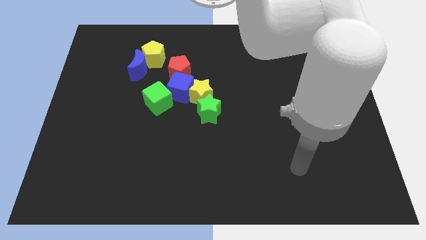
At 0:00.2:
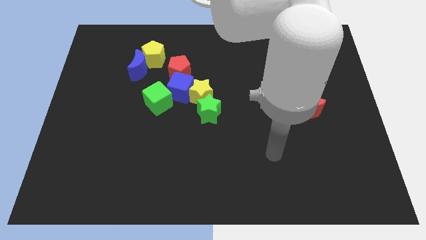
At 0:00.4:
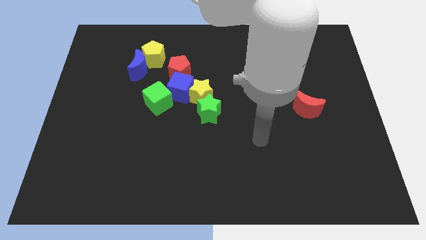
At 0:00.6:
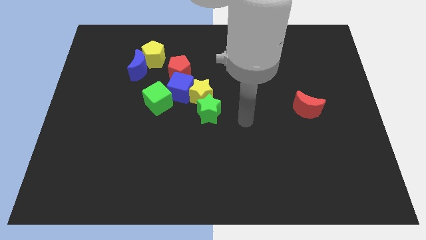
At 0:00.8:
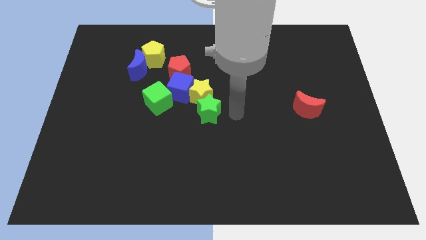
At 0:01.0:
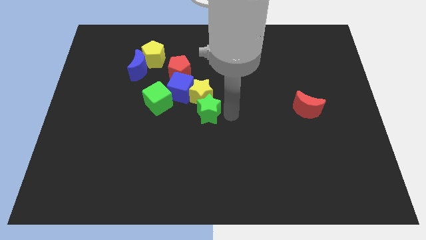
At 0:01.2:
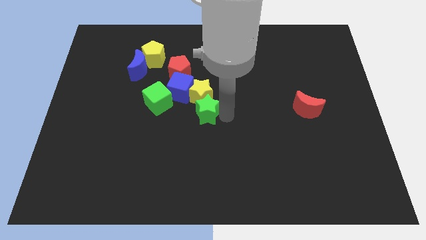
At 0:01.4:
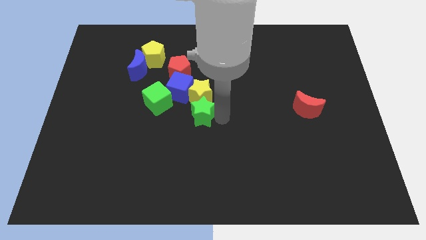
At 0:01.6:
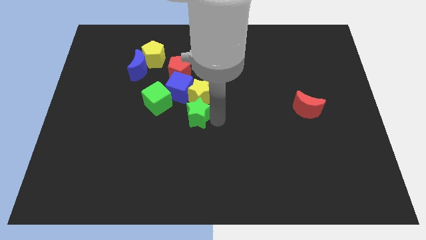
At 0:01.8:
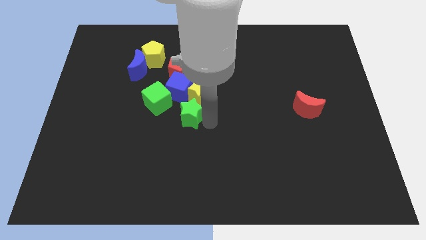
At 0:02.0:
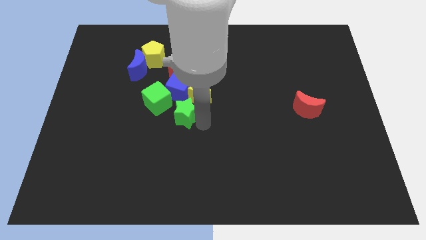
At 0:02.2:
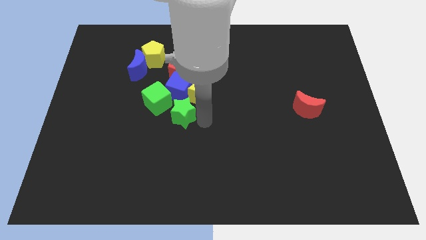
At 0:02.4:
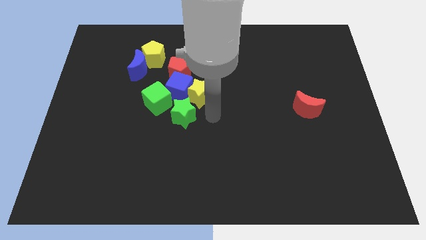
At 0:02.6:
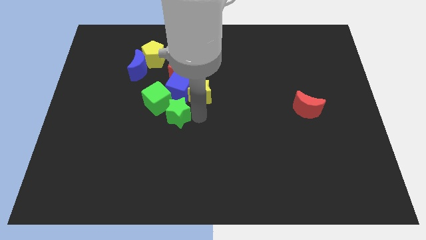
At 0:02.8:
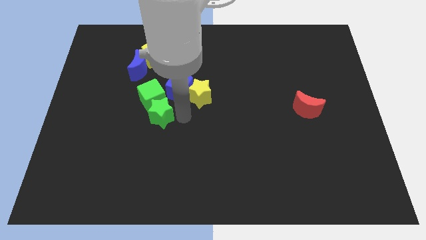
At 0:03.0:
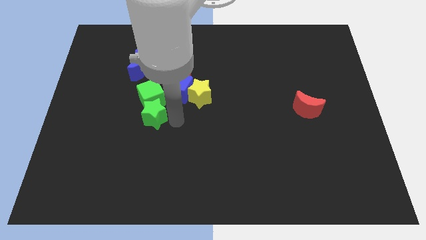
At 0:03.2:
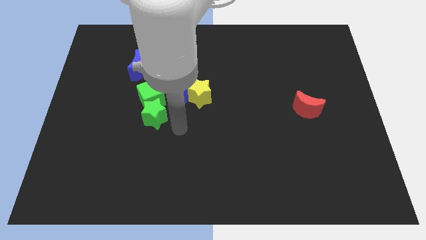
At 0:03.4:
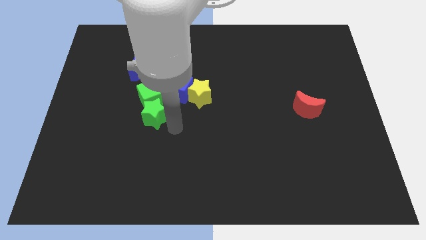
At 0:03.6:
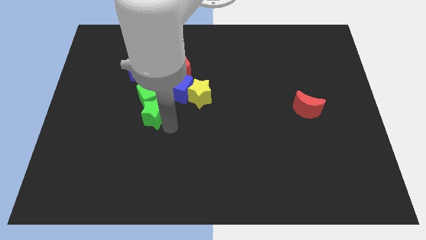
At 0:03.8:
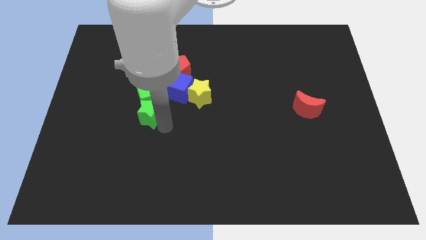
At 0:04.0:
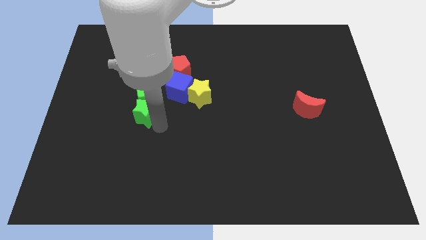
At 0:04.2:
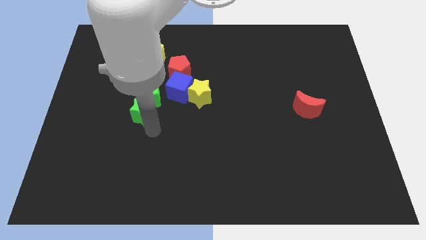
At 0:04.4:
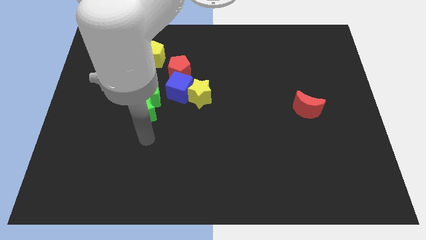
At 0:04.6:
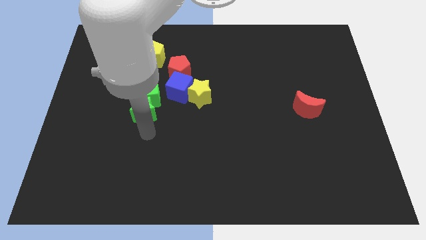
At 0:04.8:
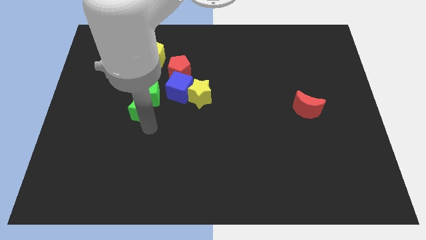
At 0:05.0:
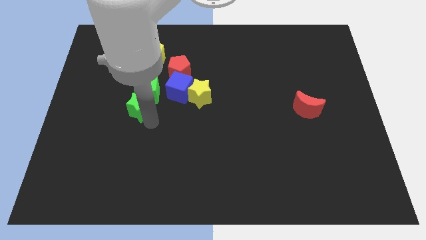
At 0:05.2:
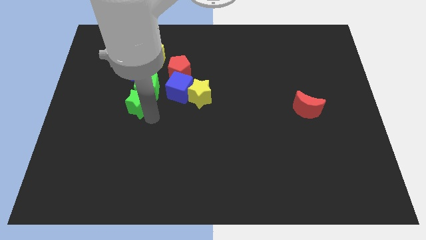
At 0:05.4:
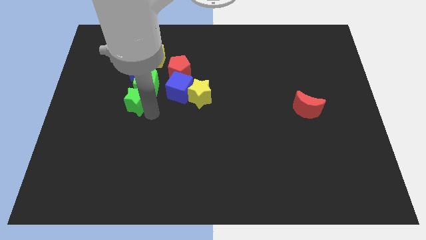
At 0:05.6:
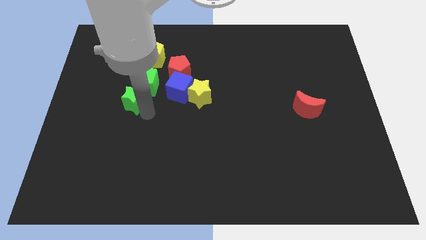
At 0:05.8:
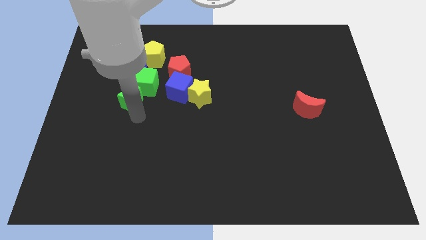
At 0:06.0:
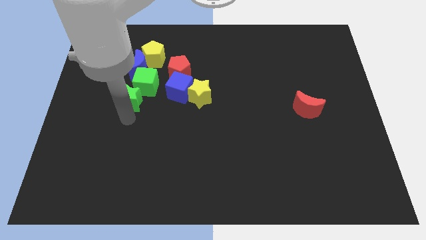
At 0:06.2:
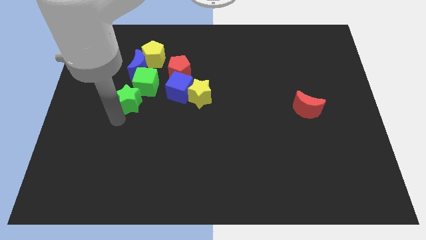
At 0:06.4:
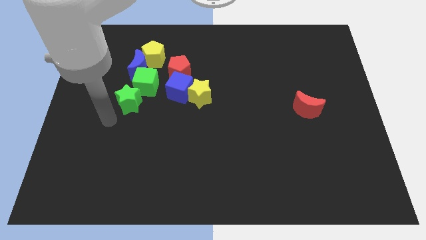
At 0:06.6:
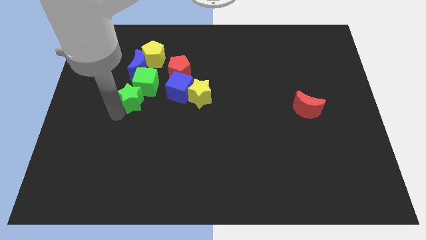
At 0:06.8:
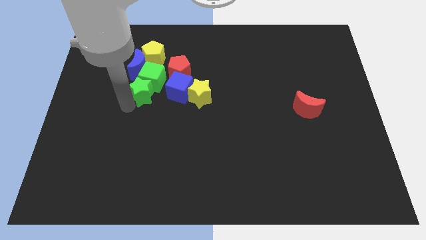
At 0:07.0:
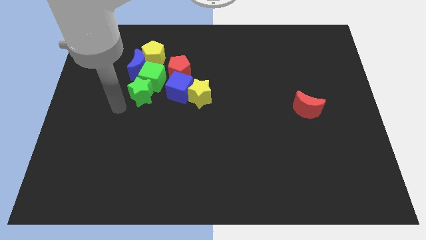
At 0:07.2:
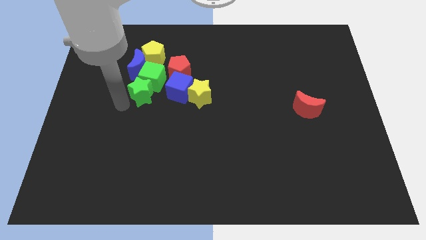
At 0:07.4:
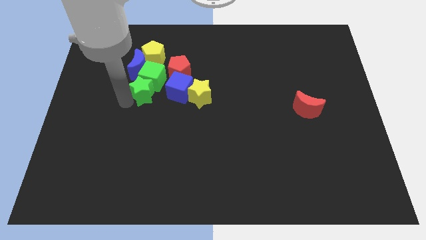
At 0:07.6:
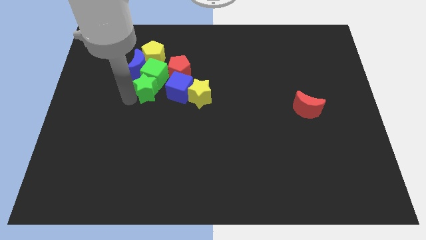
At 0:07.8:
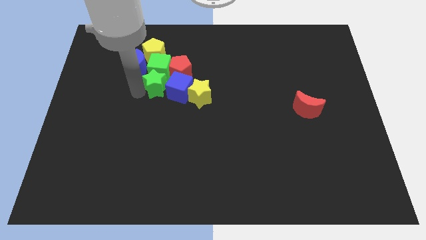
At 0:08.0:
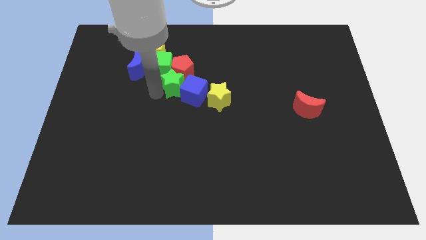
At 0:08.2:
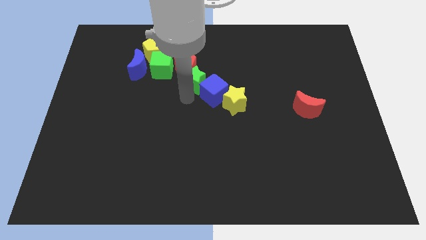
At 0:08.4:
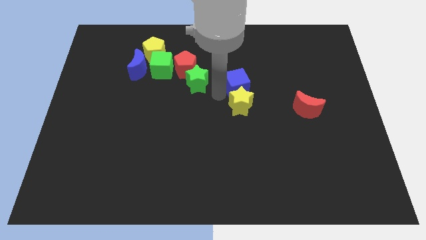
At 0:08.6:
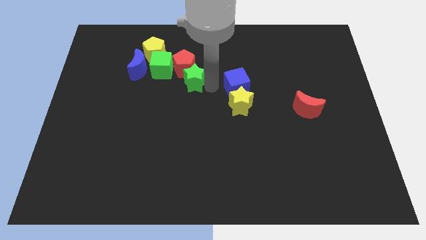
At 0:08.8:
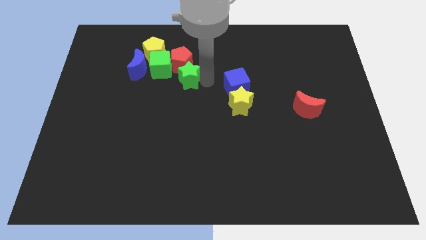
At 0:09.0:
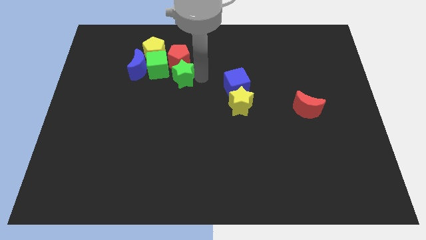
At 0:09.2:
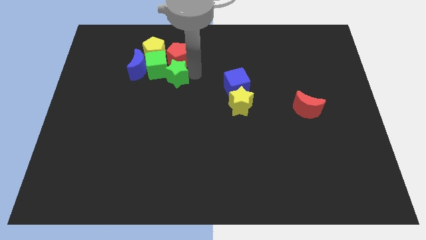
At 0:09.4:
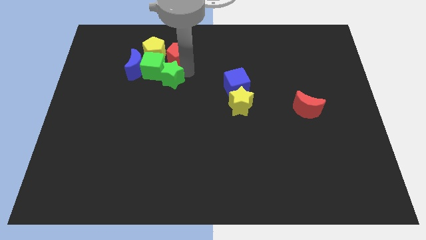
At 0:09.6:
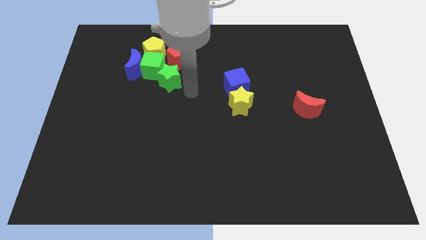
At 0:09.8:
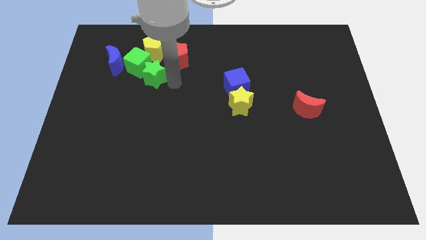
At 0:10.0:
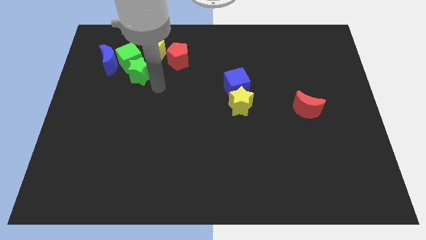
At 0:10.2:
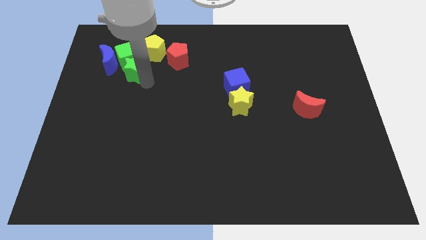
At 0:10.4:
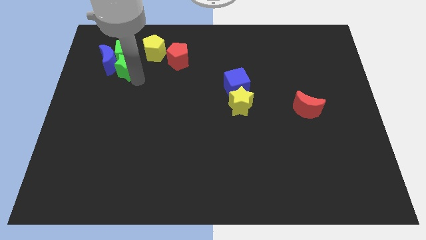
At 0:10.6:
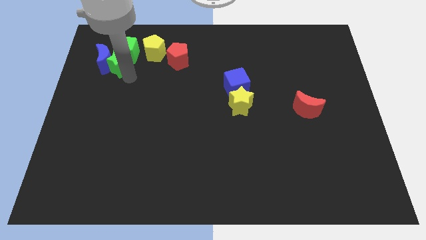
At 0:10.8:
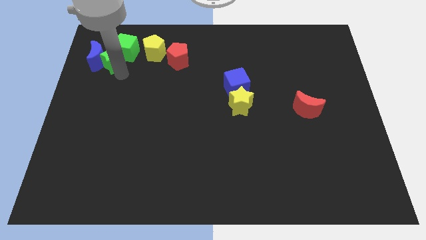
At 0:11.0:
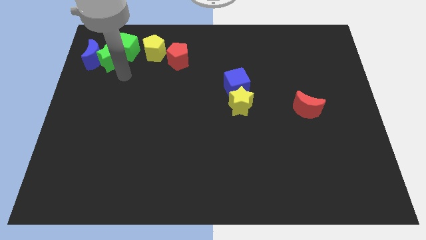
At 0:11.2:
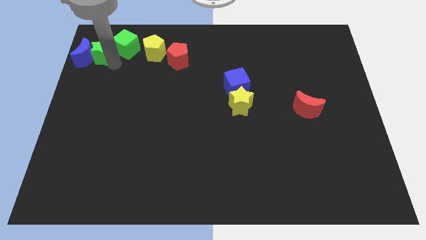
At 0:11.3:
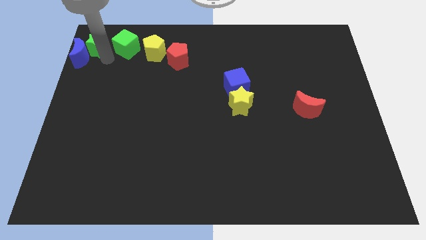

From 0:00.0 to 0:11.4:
put the green star to the top left corner
